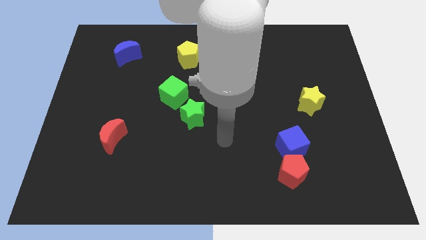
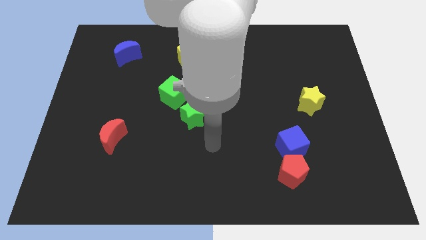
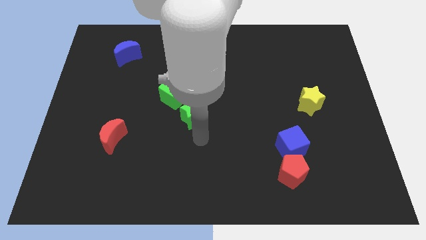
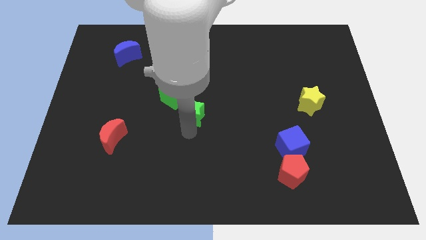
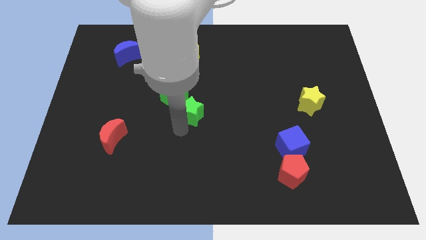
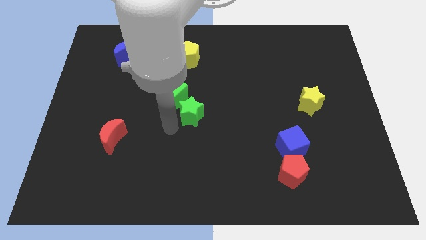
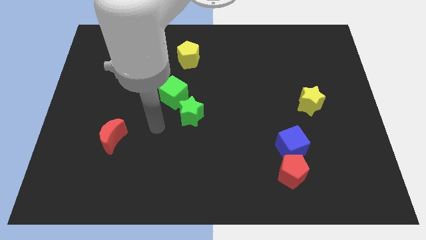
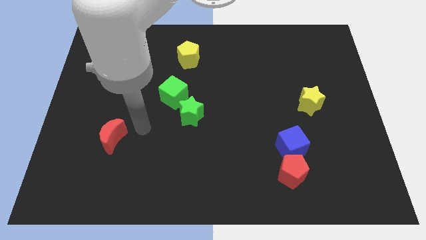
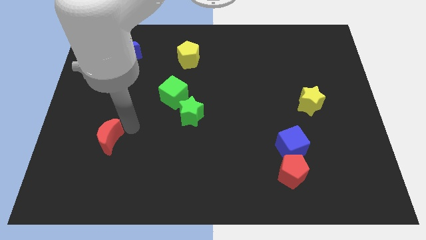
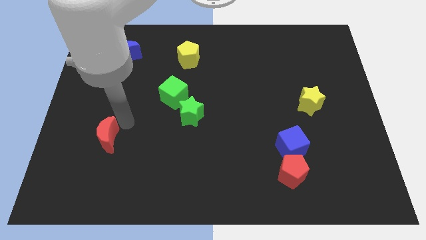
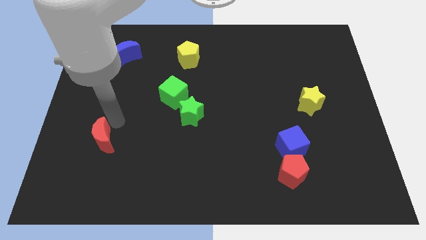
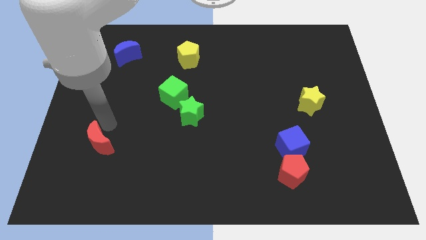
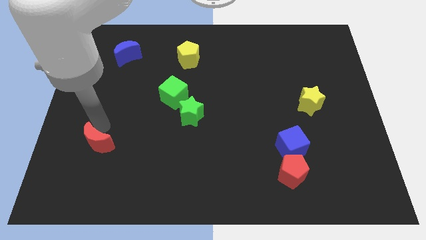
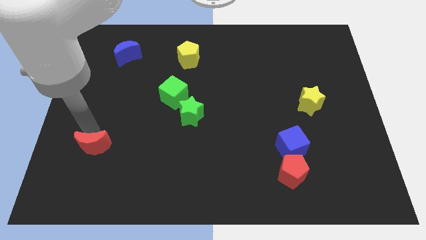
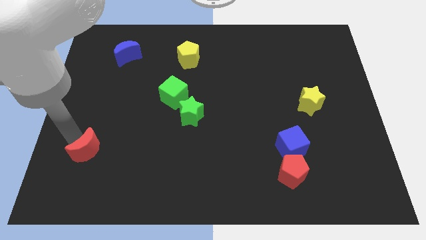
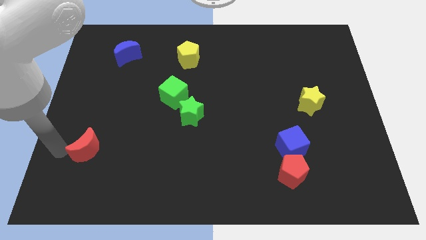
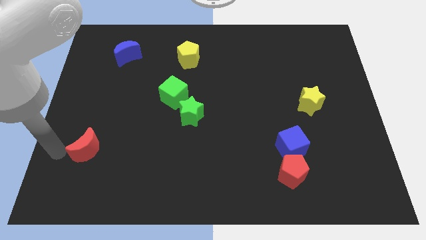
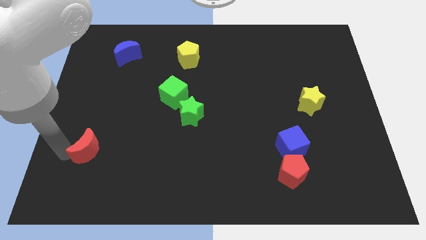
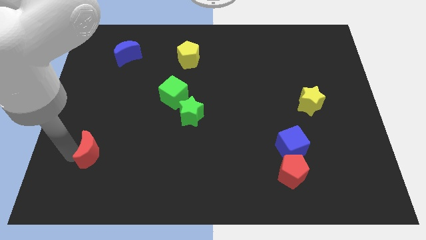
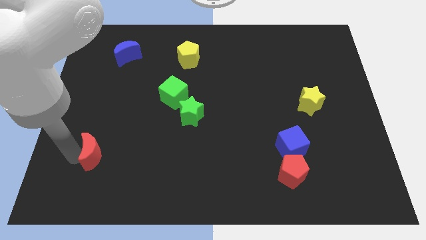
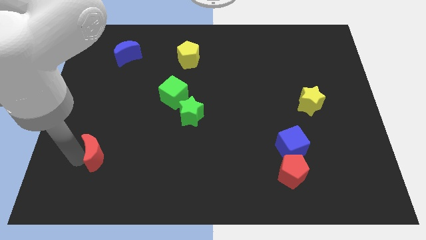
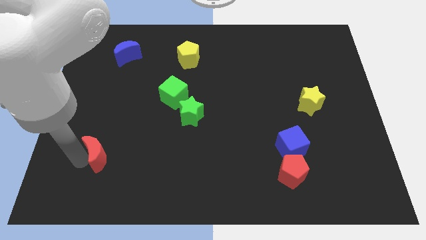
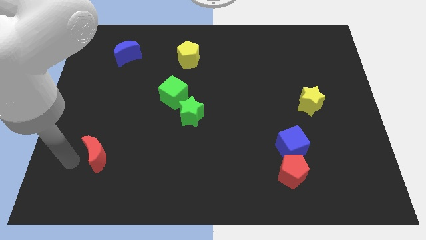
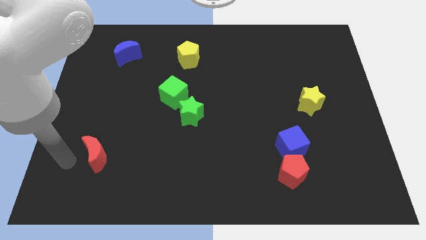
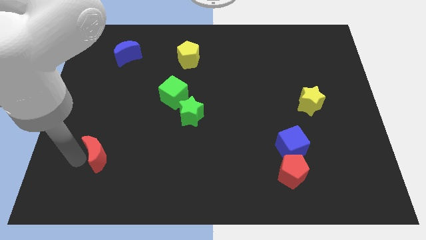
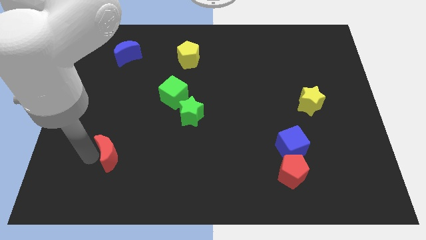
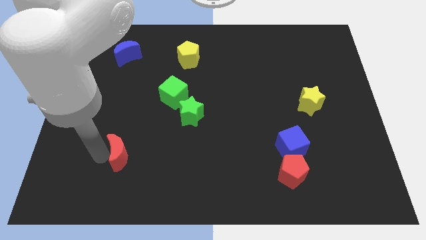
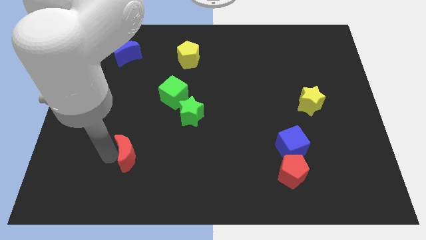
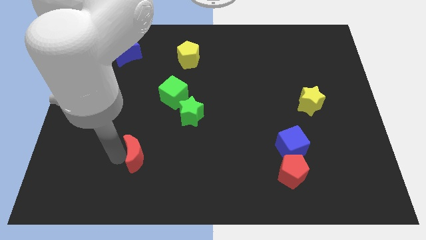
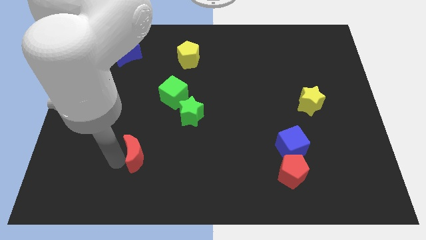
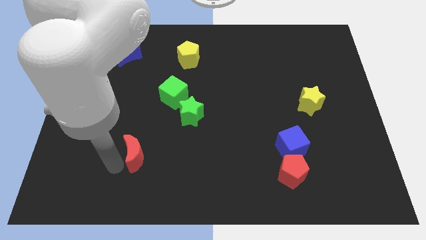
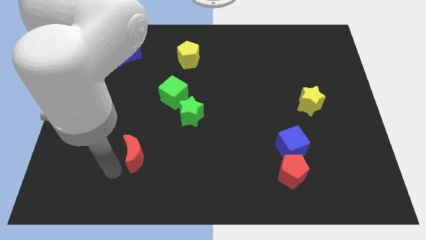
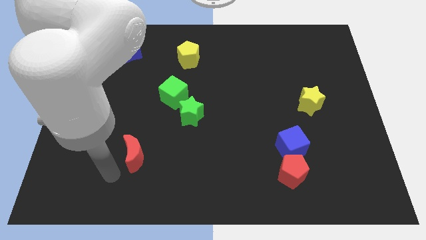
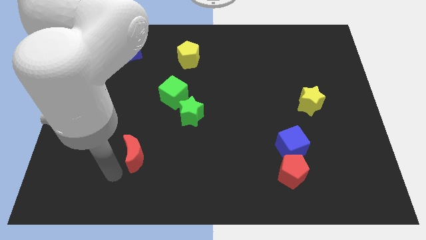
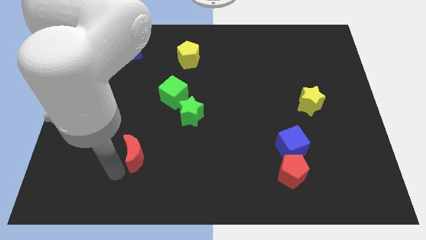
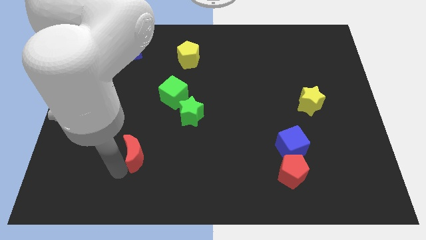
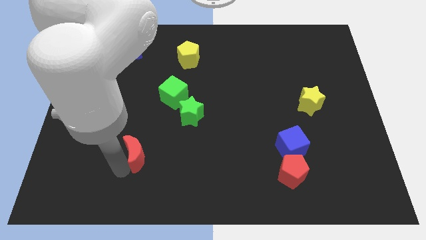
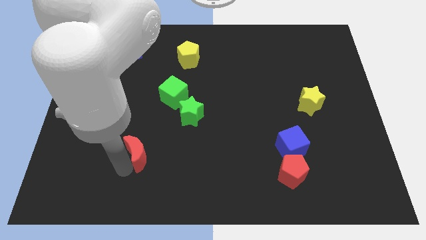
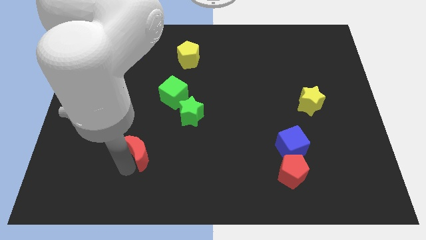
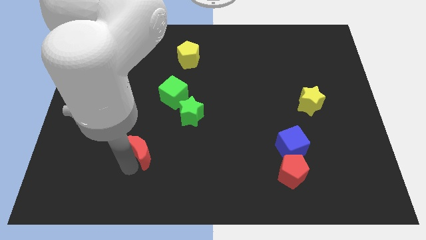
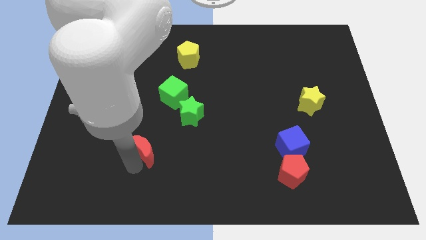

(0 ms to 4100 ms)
push the red moon right somewhat

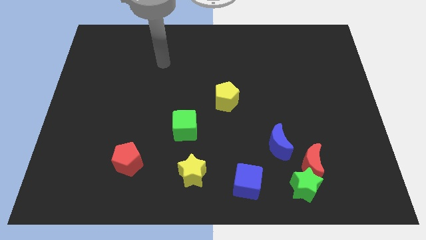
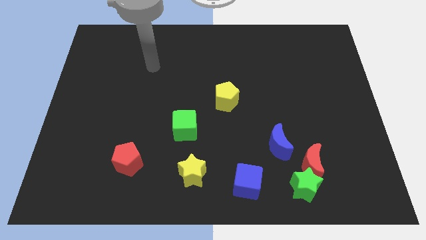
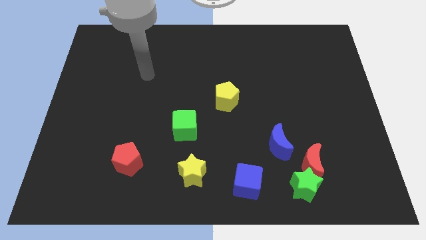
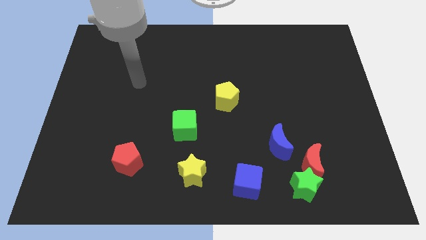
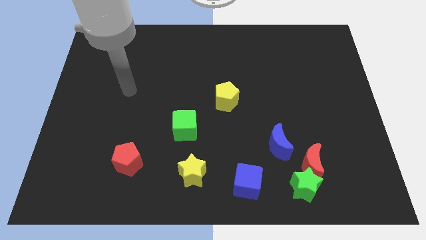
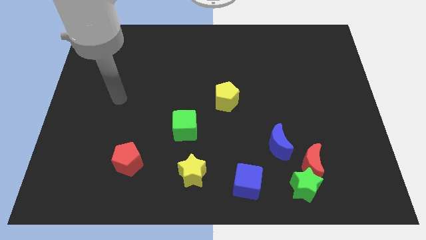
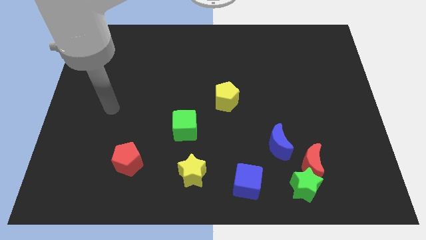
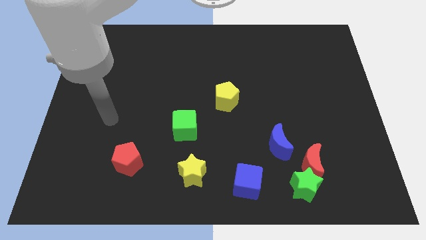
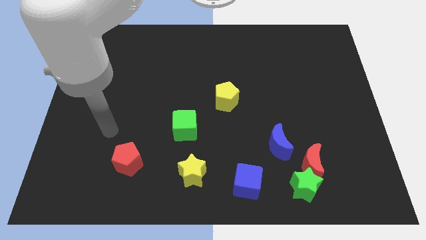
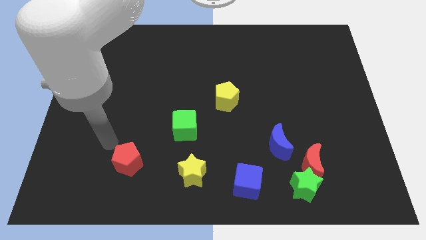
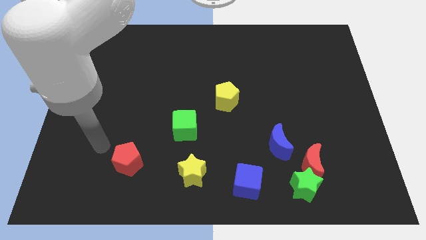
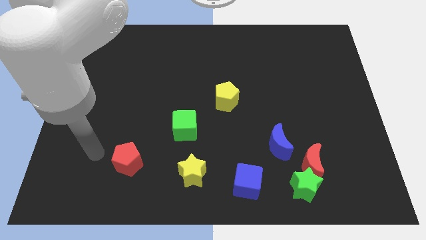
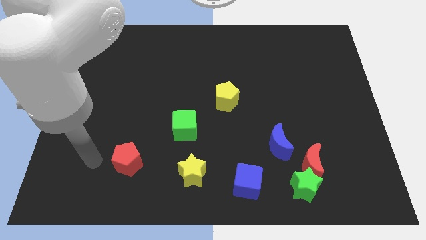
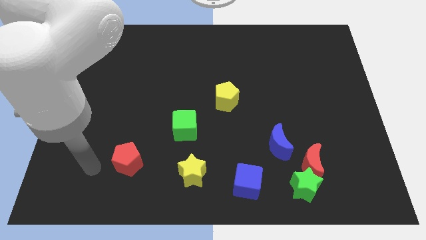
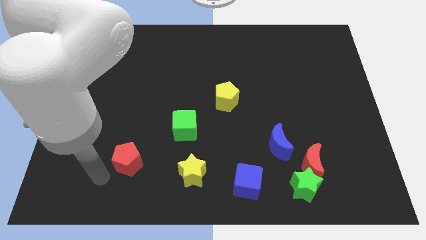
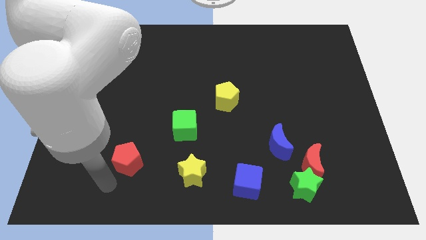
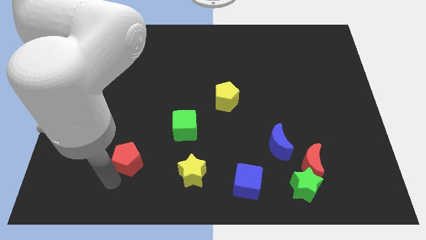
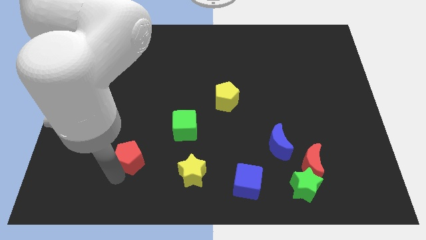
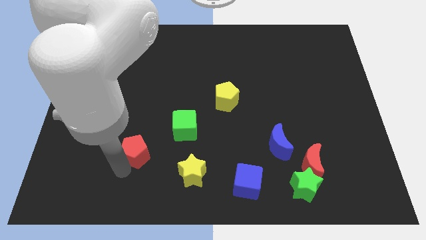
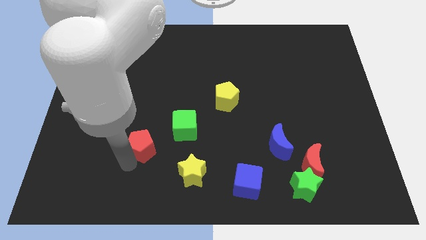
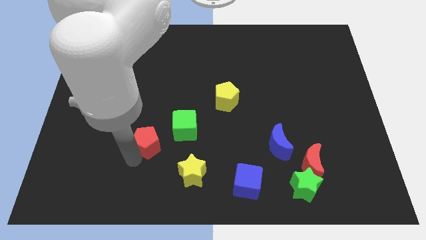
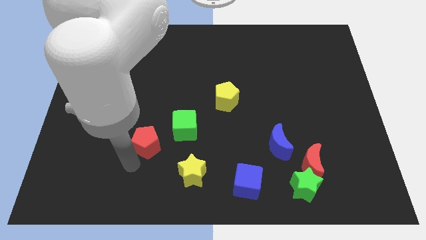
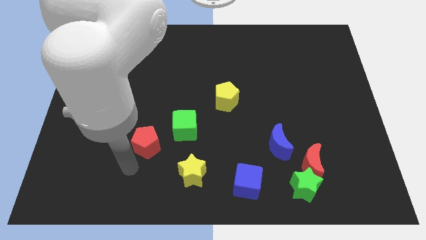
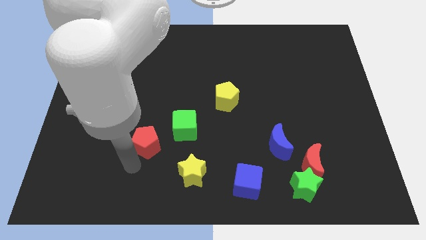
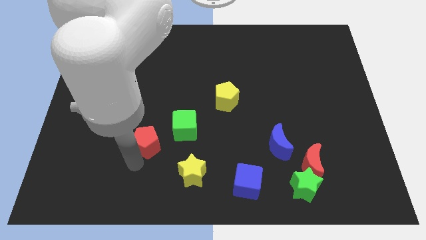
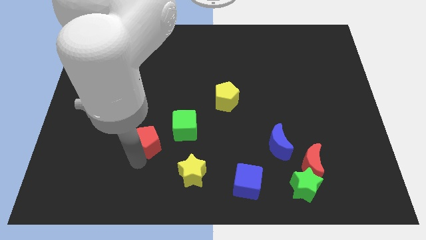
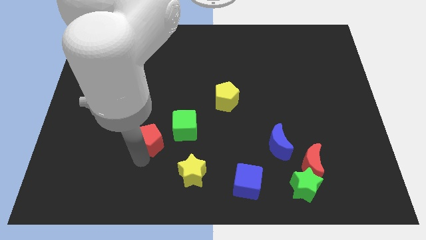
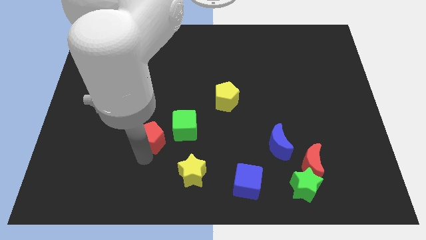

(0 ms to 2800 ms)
move the red pentagon somewhat up and to the right

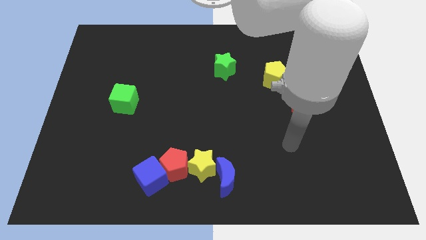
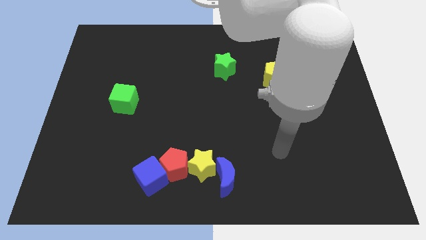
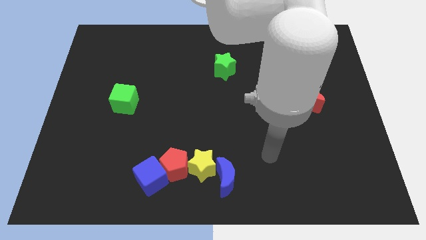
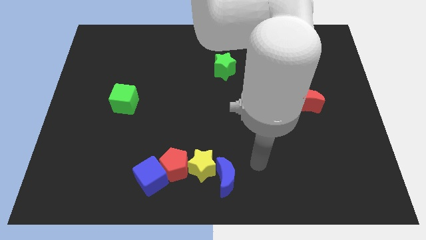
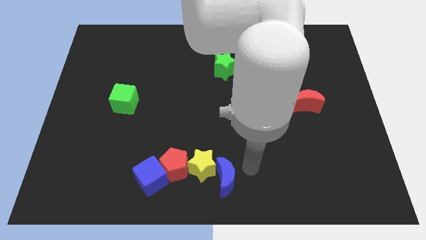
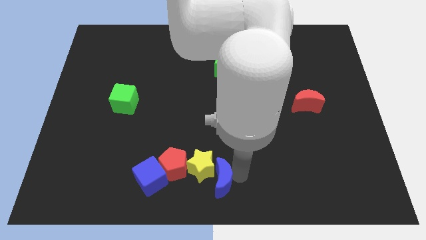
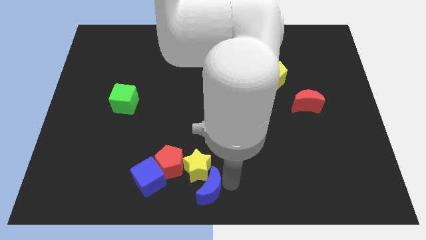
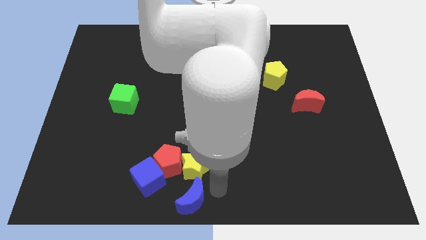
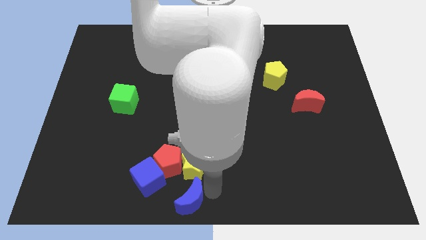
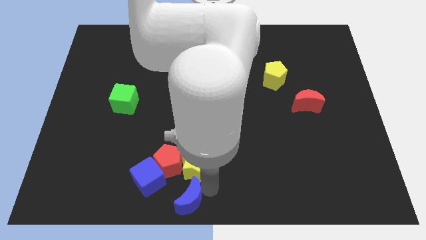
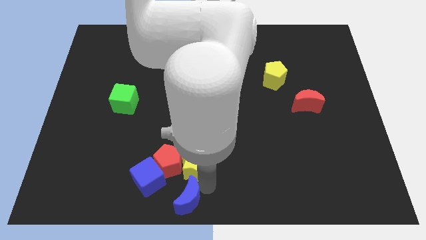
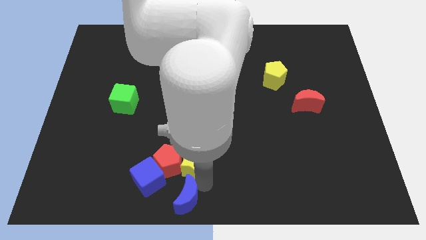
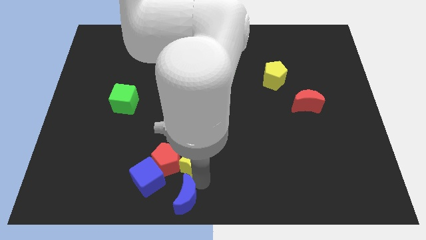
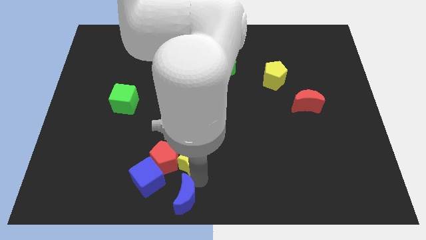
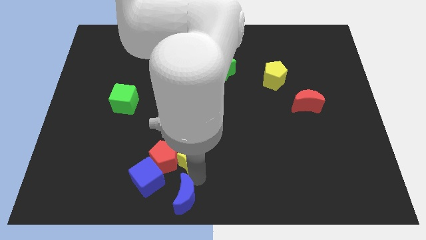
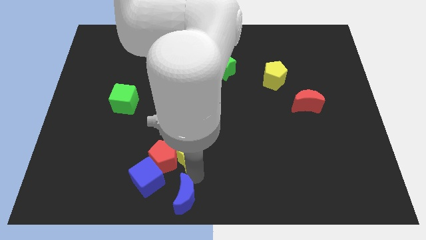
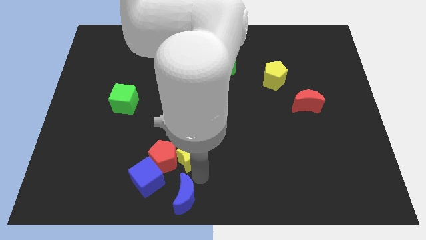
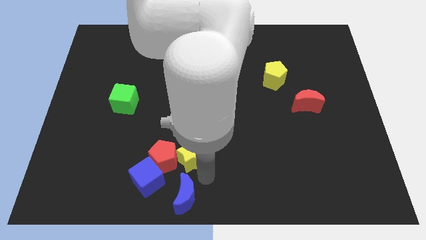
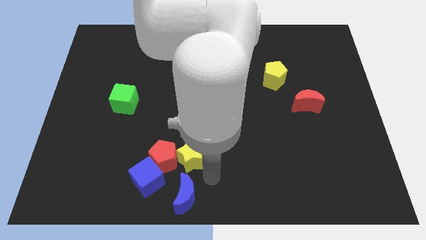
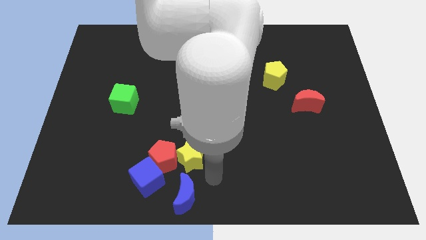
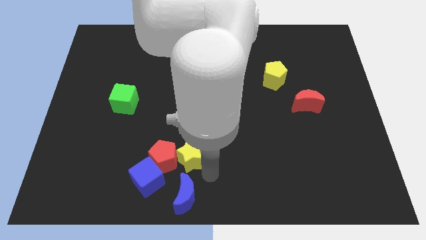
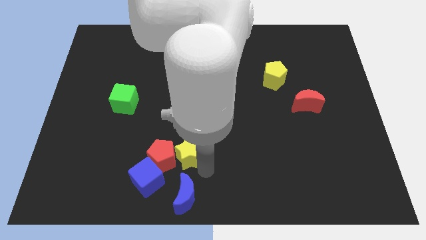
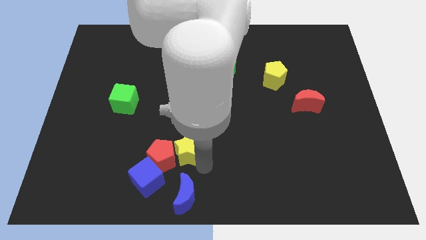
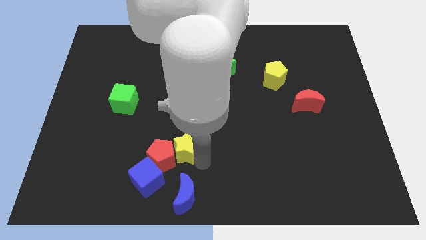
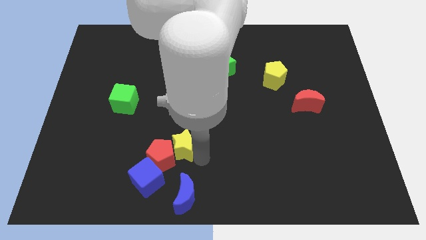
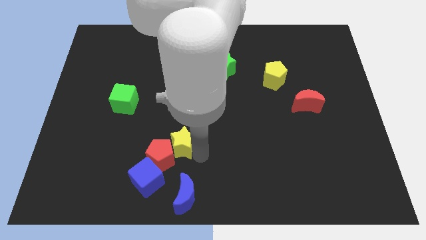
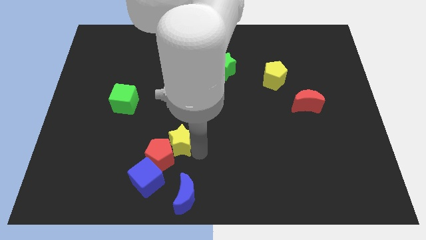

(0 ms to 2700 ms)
slide the yellow star diagonally upwards and left a little
